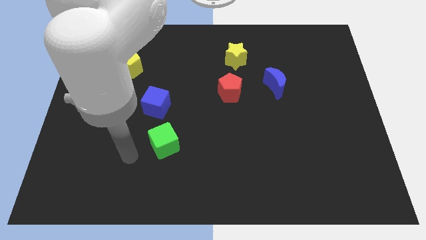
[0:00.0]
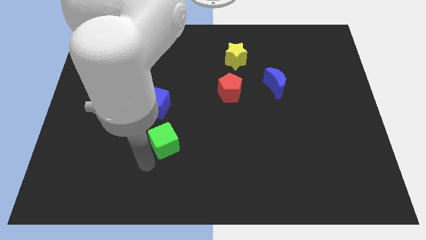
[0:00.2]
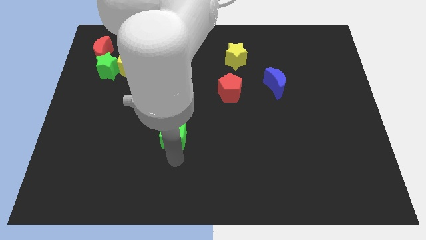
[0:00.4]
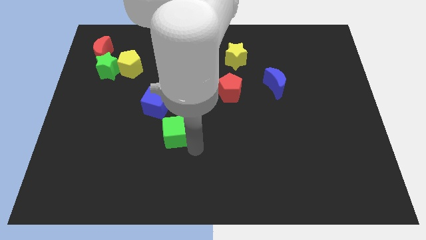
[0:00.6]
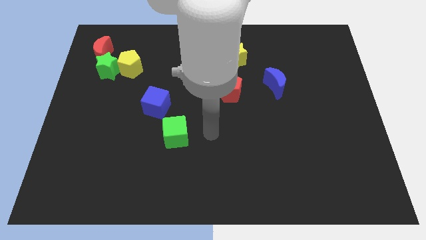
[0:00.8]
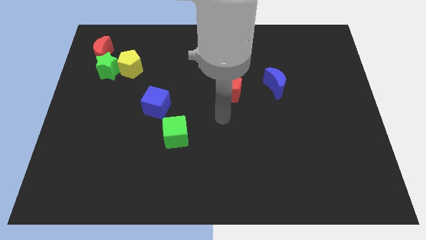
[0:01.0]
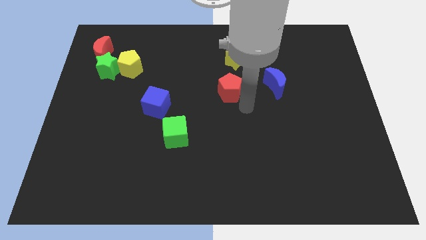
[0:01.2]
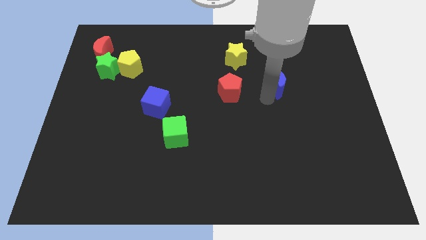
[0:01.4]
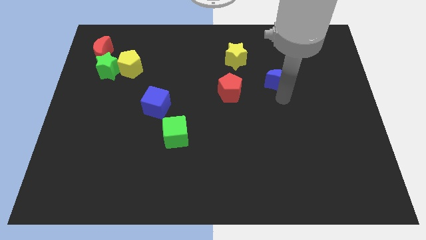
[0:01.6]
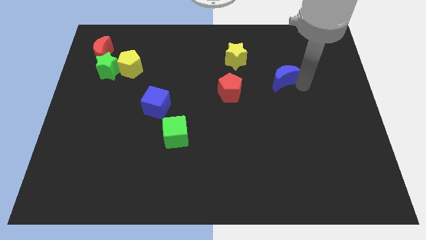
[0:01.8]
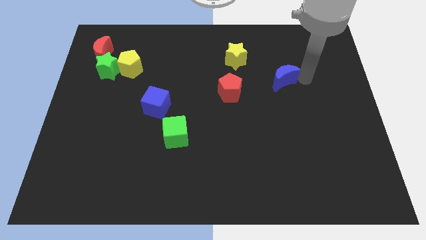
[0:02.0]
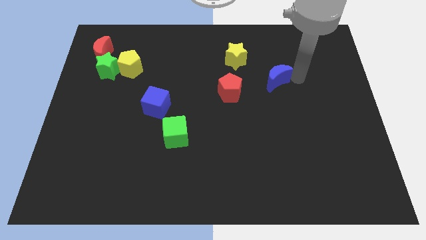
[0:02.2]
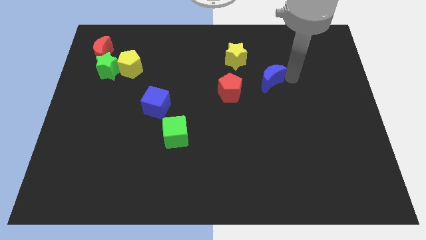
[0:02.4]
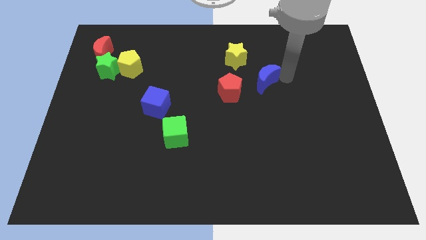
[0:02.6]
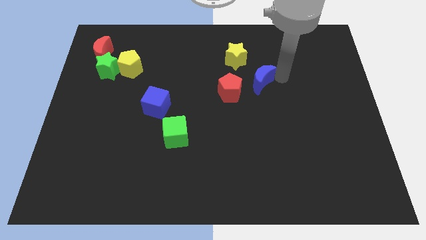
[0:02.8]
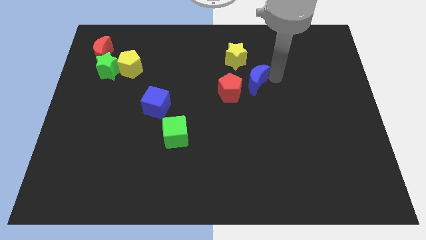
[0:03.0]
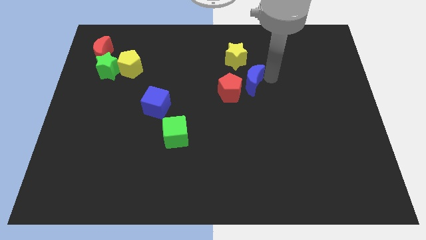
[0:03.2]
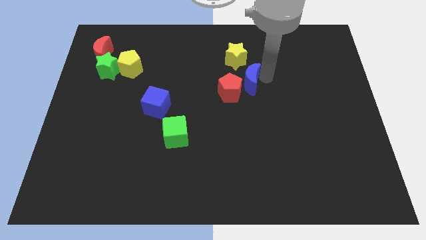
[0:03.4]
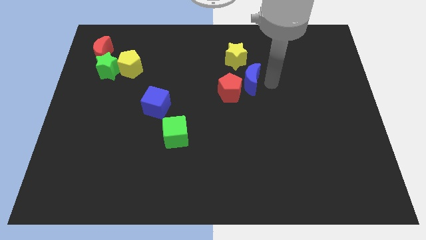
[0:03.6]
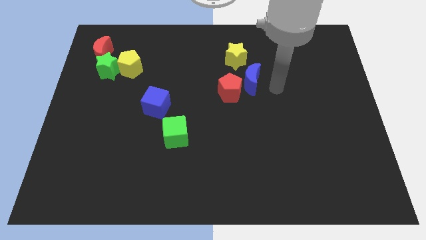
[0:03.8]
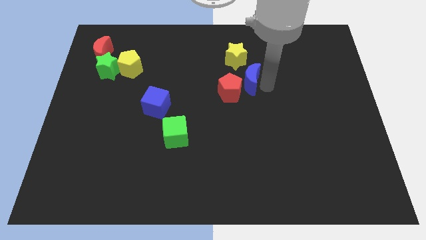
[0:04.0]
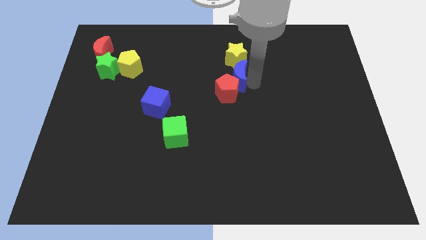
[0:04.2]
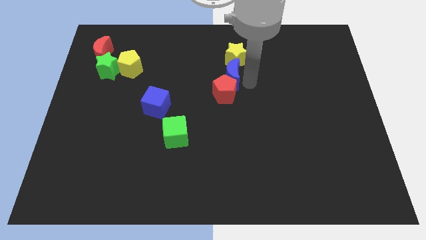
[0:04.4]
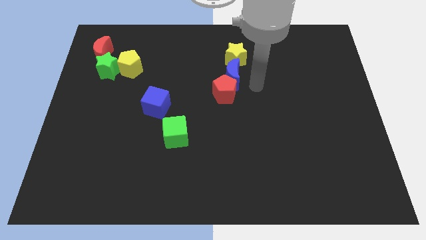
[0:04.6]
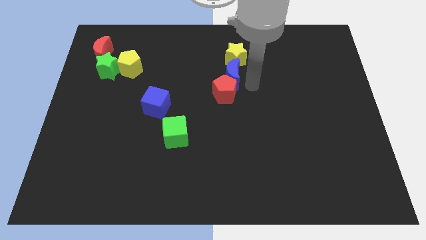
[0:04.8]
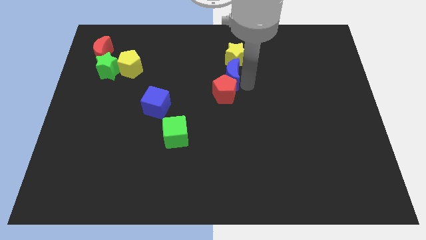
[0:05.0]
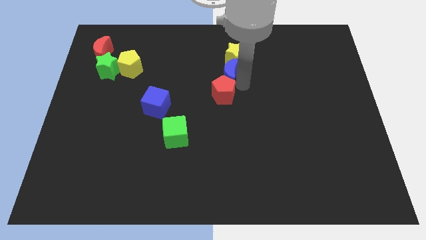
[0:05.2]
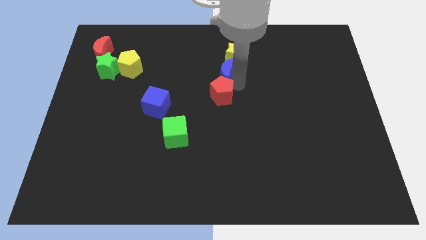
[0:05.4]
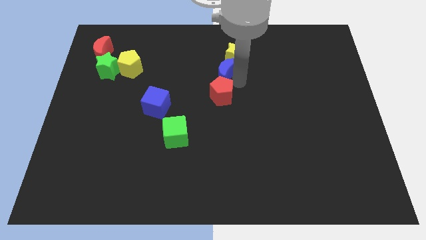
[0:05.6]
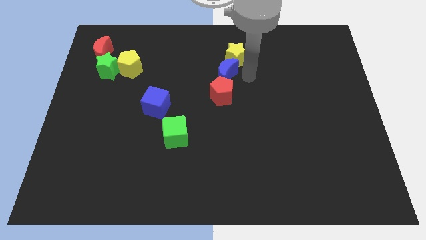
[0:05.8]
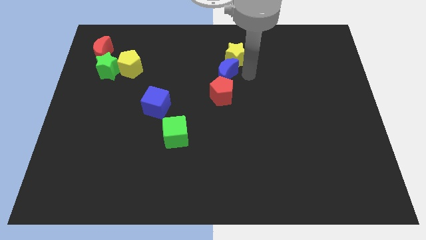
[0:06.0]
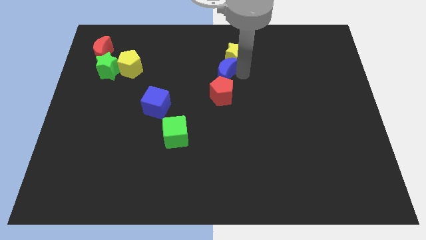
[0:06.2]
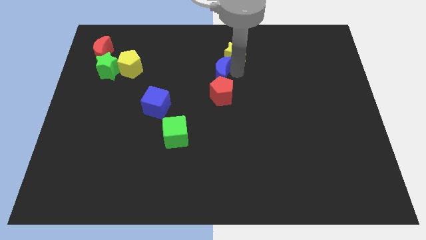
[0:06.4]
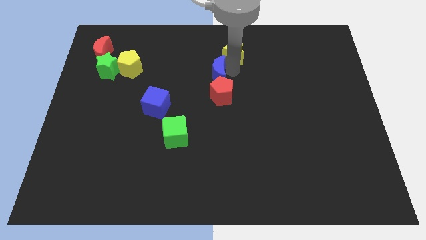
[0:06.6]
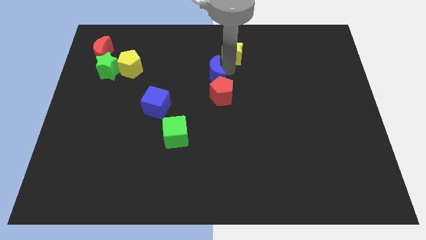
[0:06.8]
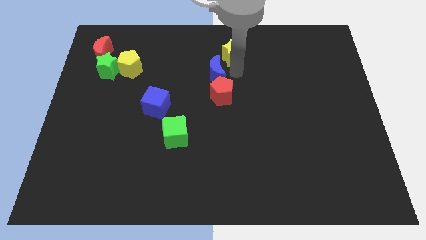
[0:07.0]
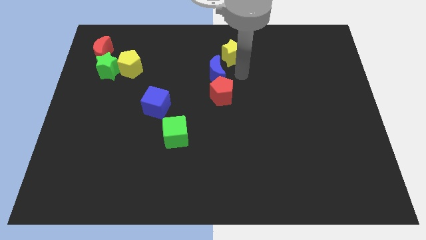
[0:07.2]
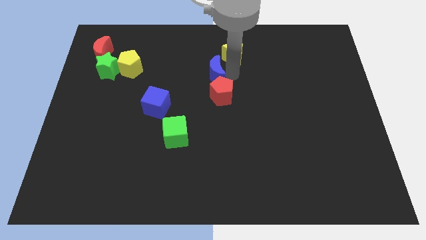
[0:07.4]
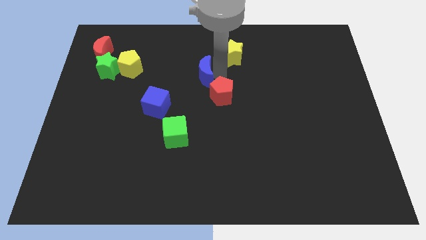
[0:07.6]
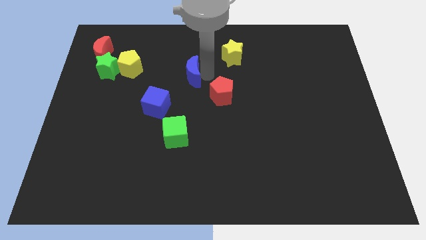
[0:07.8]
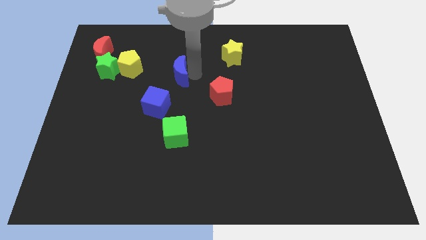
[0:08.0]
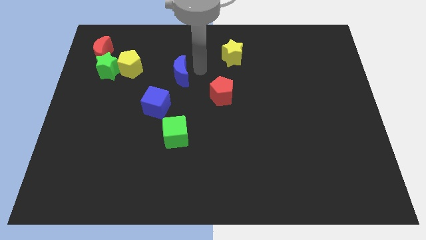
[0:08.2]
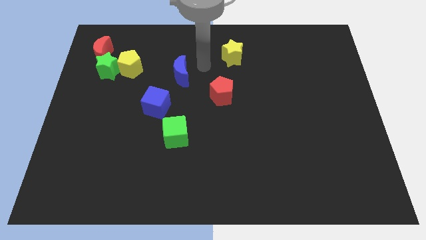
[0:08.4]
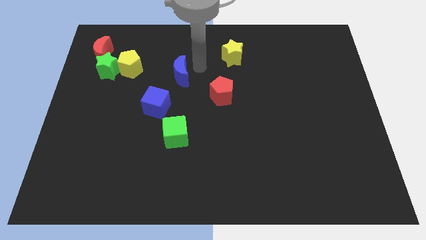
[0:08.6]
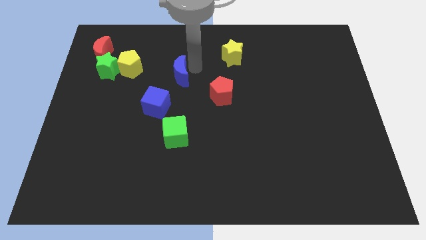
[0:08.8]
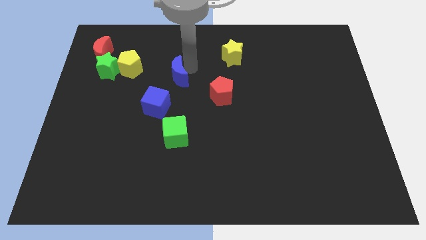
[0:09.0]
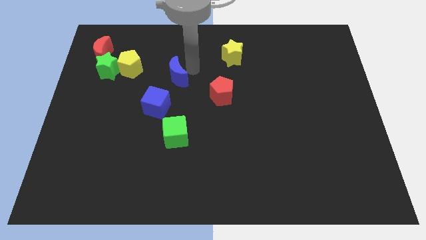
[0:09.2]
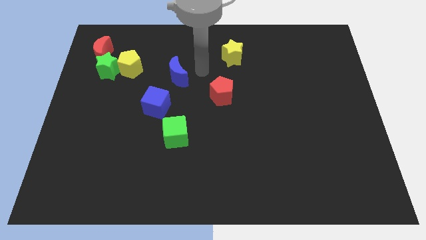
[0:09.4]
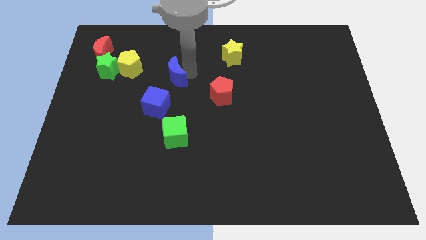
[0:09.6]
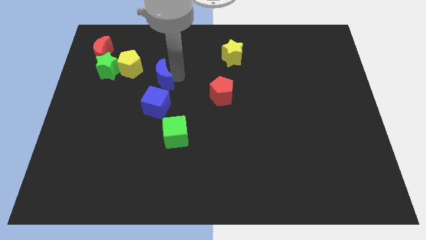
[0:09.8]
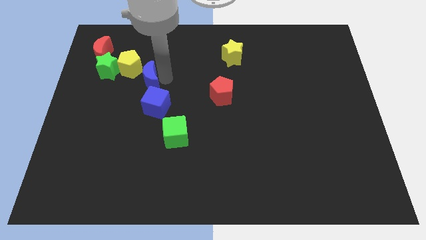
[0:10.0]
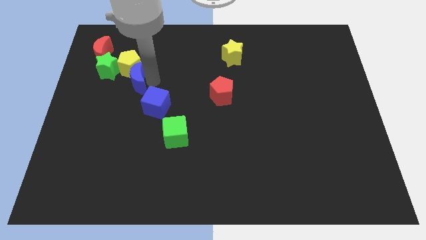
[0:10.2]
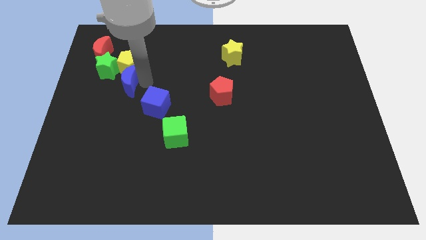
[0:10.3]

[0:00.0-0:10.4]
push the blue moon to the bottom left side of the yellow pentagon

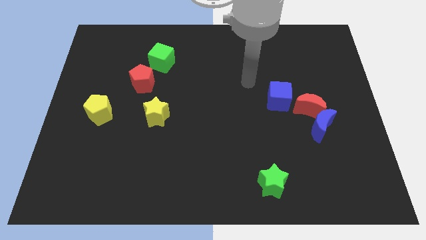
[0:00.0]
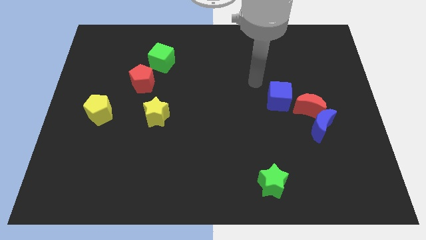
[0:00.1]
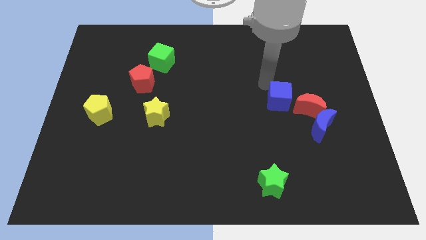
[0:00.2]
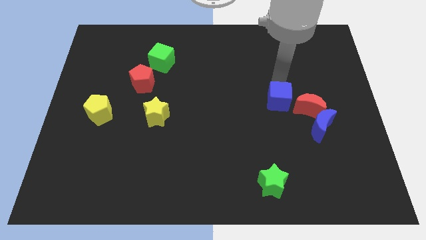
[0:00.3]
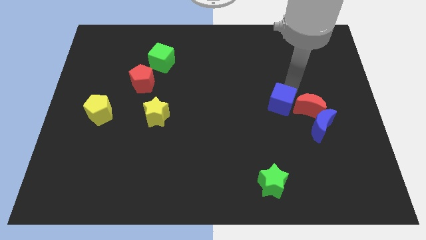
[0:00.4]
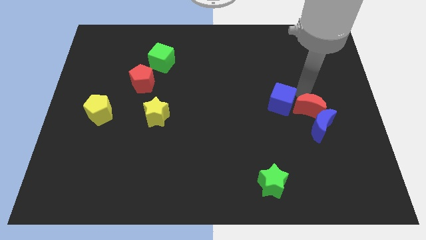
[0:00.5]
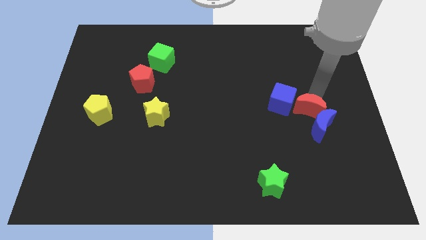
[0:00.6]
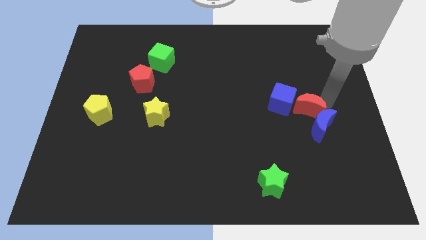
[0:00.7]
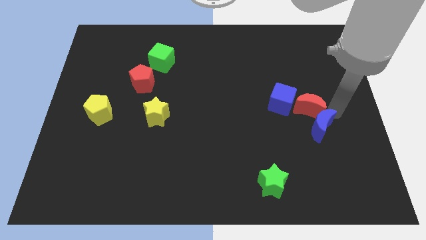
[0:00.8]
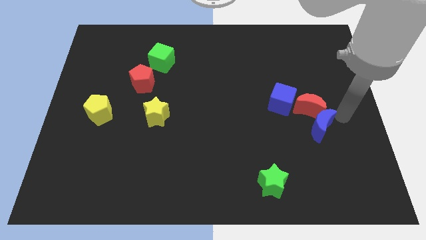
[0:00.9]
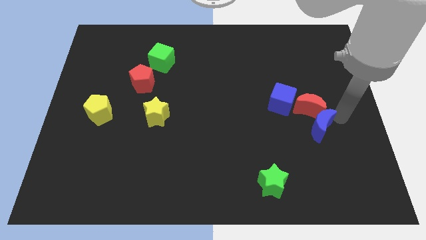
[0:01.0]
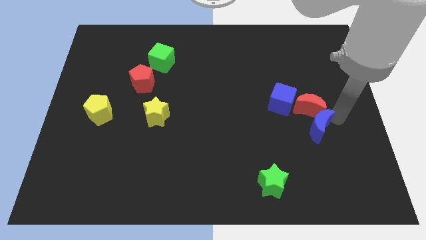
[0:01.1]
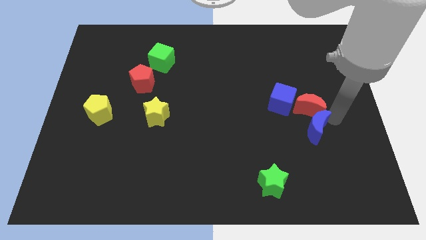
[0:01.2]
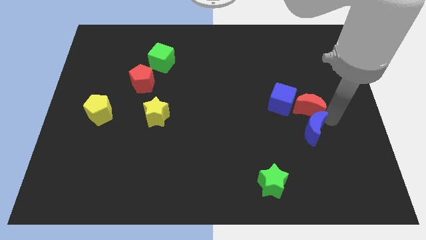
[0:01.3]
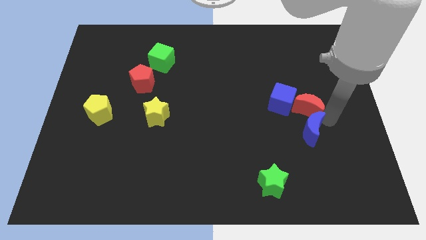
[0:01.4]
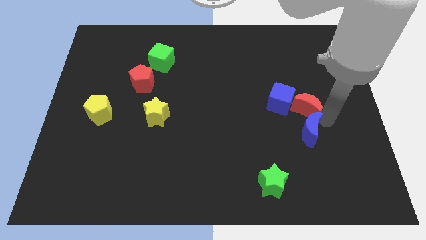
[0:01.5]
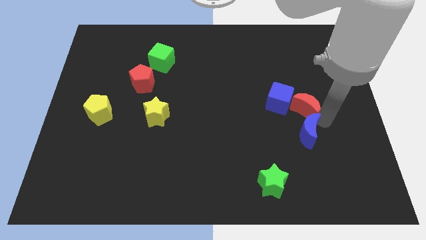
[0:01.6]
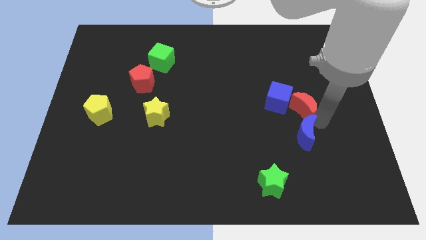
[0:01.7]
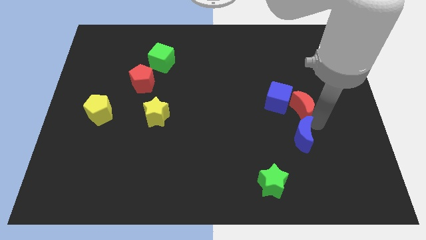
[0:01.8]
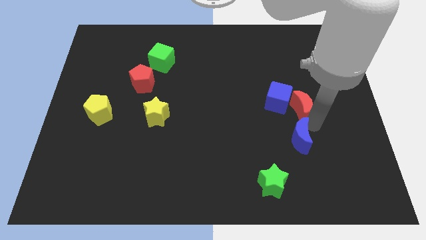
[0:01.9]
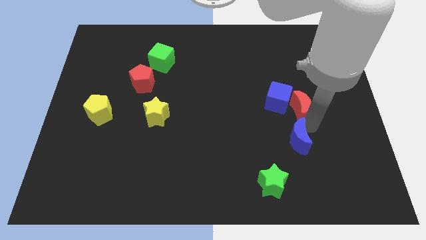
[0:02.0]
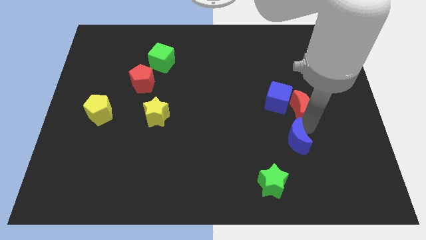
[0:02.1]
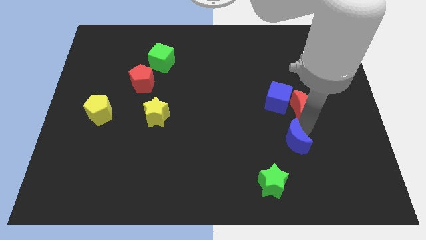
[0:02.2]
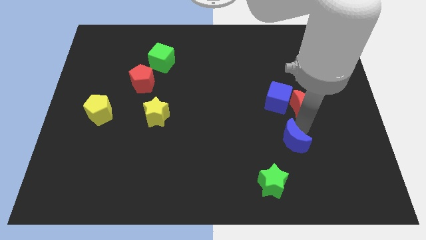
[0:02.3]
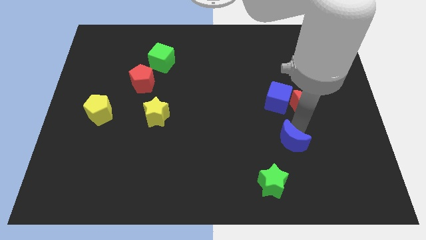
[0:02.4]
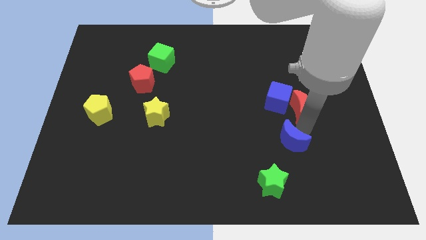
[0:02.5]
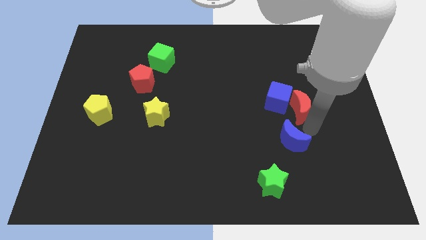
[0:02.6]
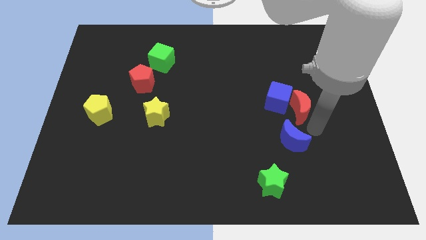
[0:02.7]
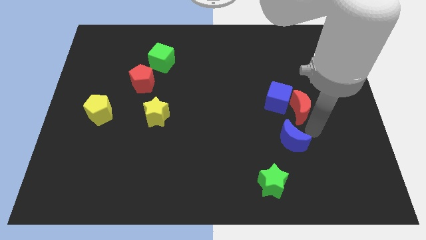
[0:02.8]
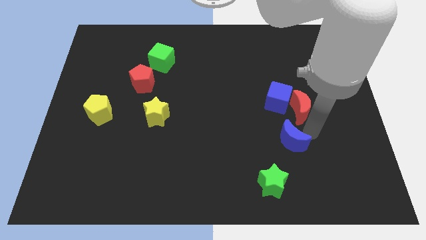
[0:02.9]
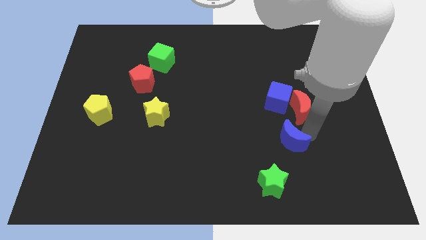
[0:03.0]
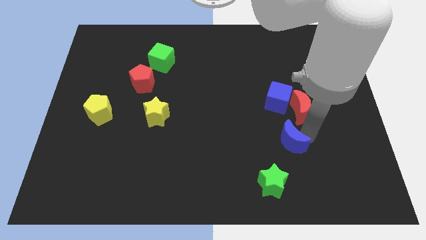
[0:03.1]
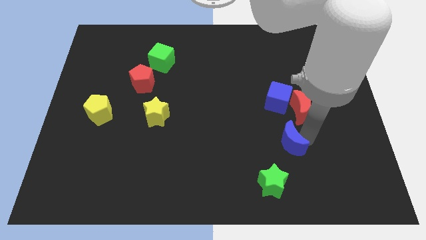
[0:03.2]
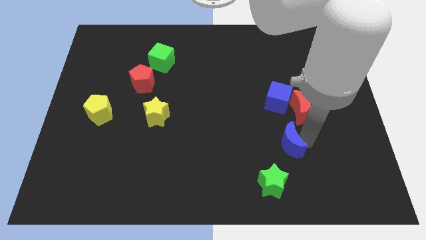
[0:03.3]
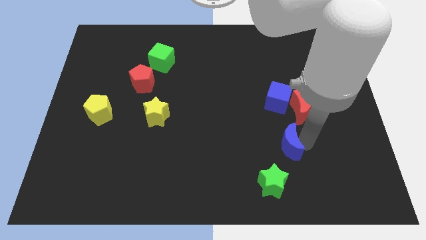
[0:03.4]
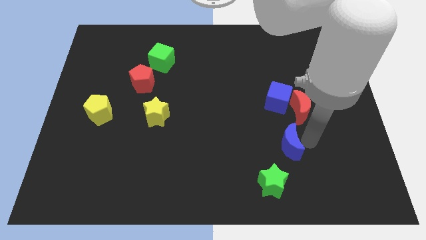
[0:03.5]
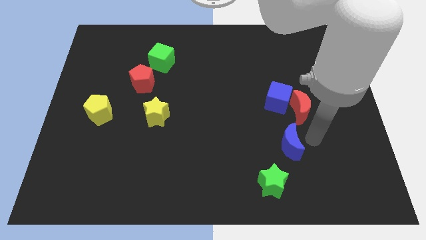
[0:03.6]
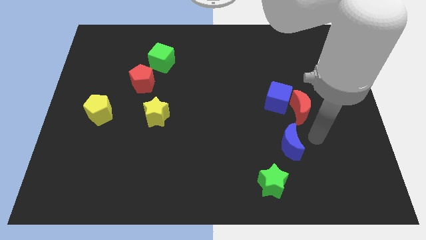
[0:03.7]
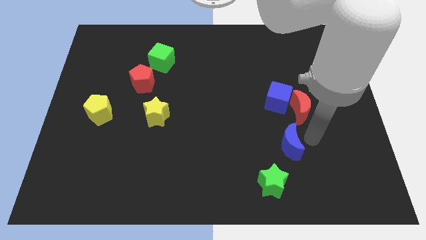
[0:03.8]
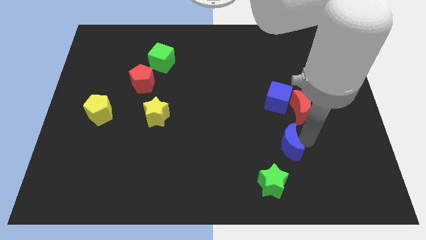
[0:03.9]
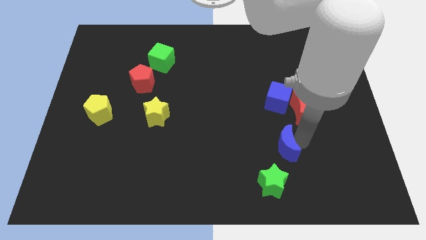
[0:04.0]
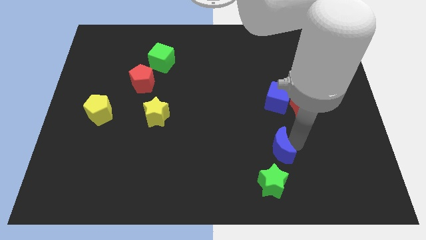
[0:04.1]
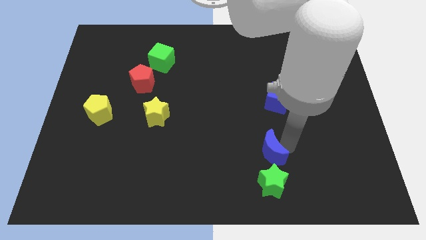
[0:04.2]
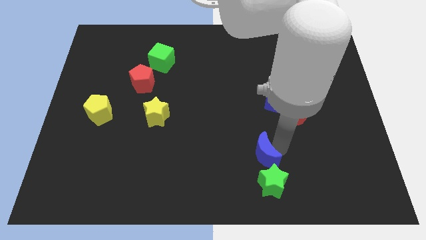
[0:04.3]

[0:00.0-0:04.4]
slide the blue moon diagonally up and to the left of the green star
